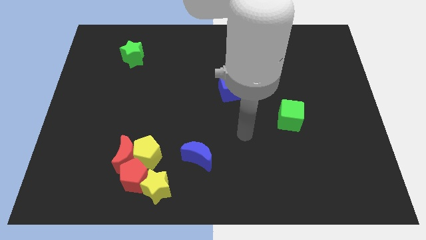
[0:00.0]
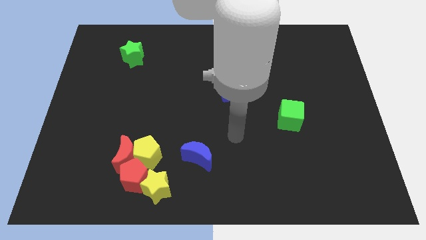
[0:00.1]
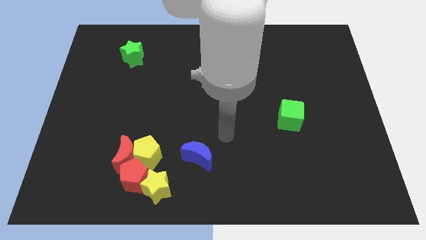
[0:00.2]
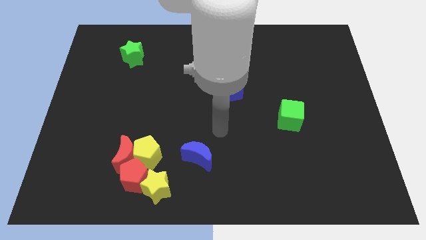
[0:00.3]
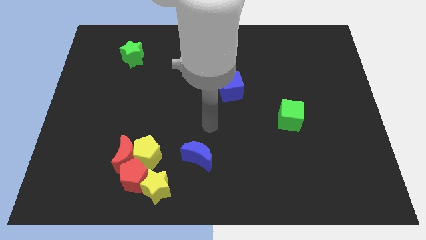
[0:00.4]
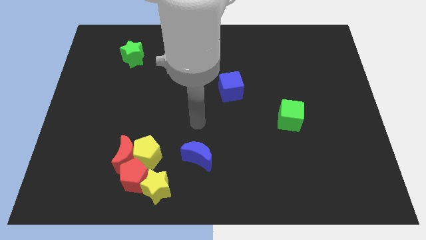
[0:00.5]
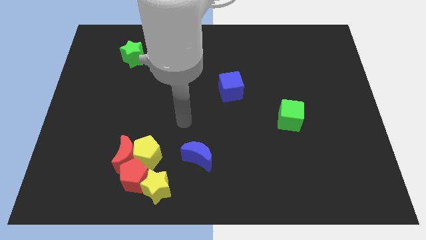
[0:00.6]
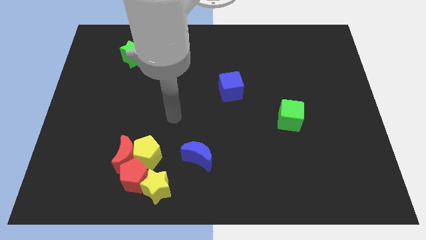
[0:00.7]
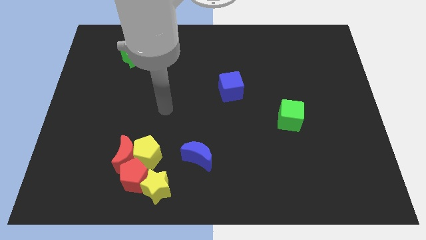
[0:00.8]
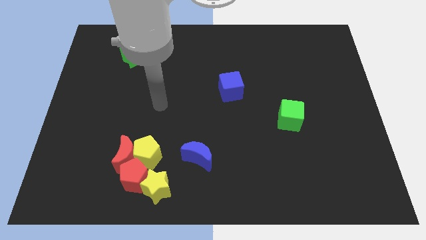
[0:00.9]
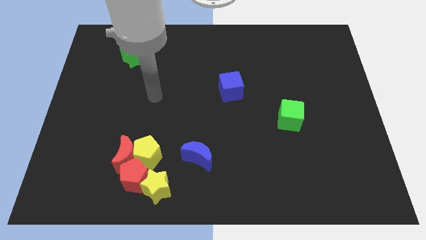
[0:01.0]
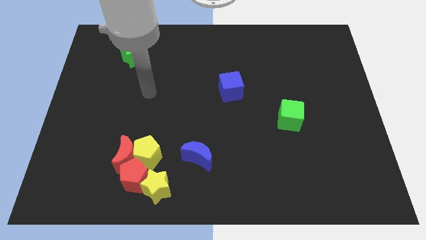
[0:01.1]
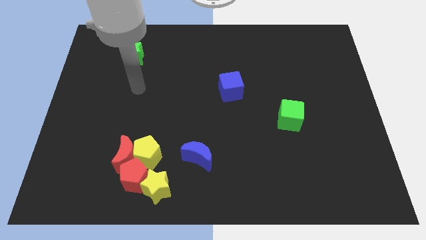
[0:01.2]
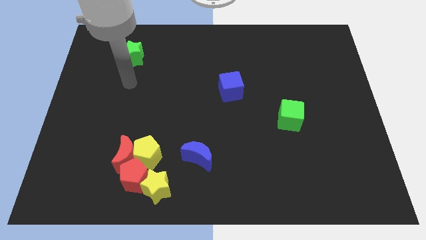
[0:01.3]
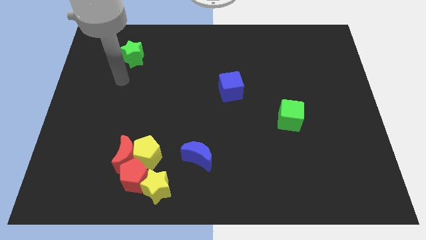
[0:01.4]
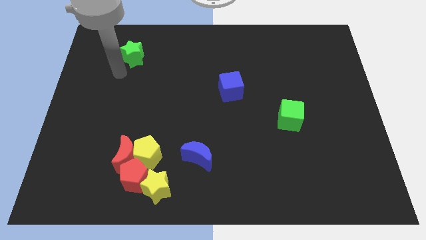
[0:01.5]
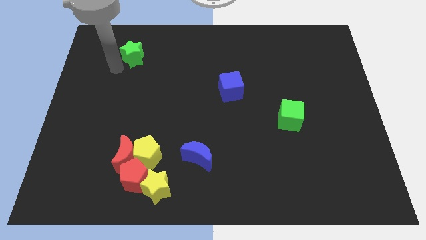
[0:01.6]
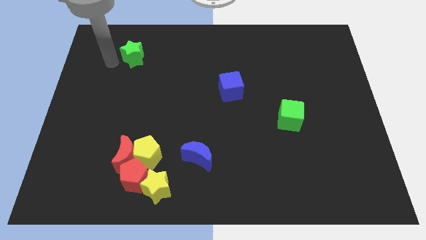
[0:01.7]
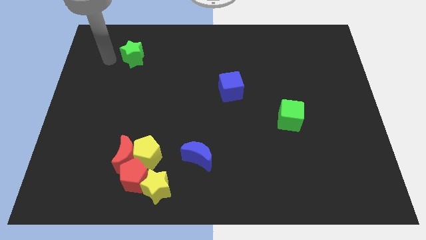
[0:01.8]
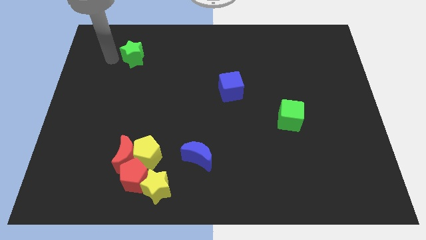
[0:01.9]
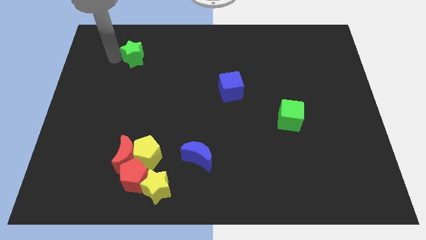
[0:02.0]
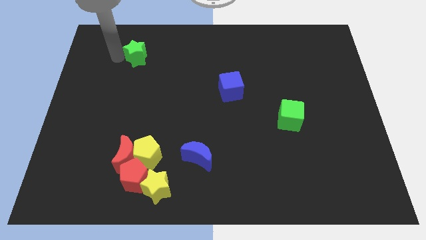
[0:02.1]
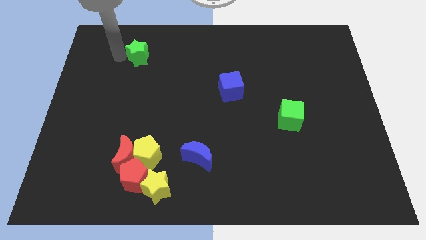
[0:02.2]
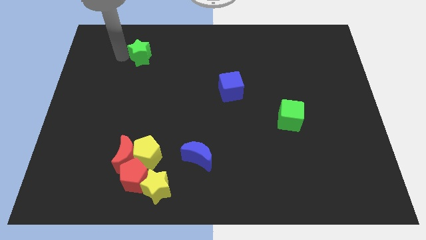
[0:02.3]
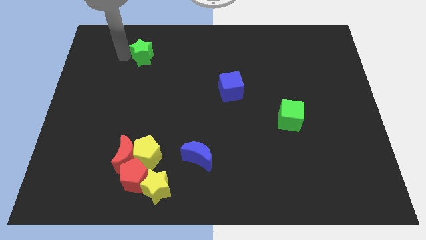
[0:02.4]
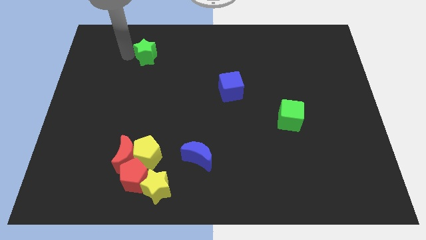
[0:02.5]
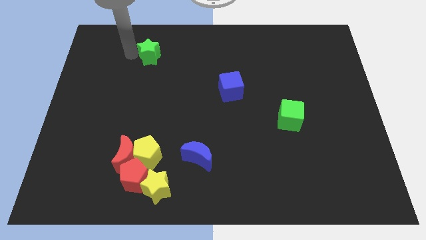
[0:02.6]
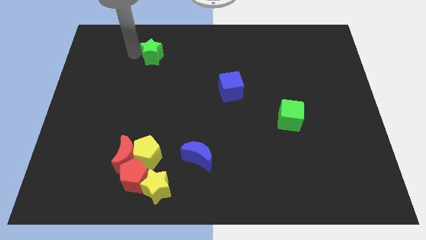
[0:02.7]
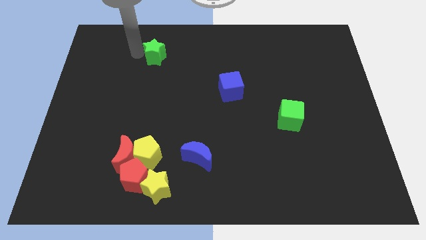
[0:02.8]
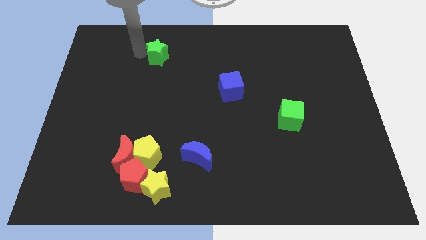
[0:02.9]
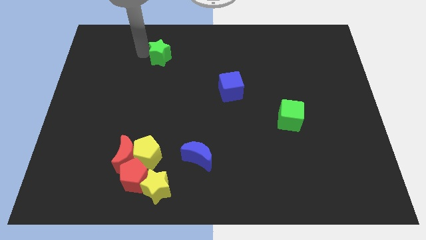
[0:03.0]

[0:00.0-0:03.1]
push the green star right slightly

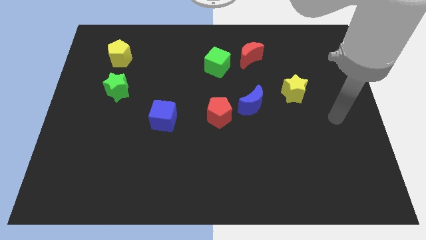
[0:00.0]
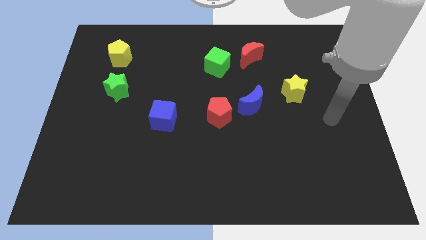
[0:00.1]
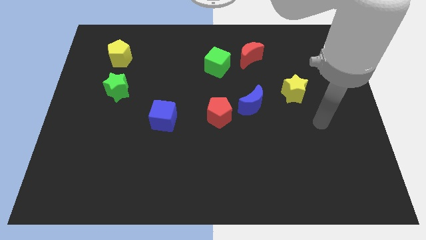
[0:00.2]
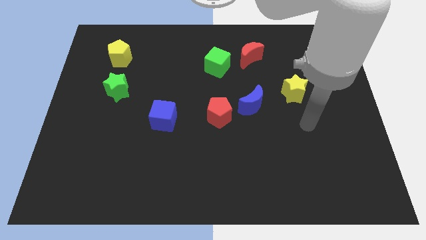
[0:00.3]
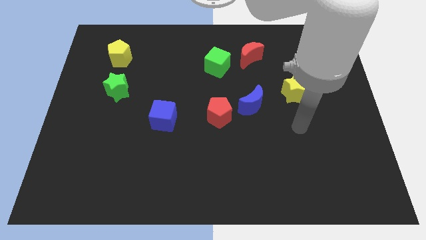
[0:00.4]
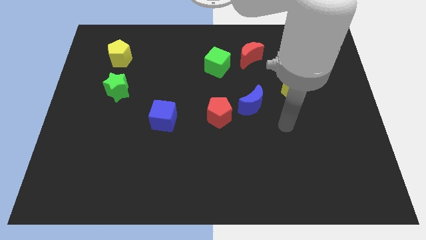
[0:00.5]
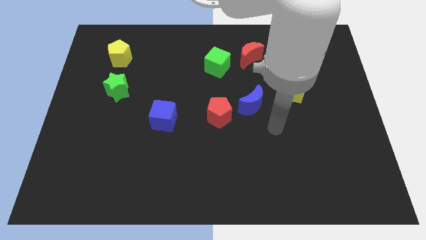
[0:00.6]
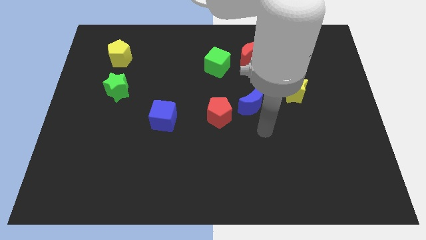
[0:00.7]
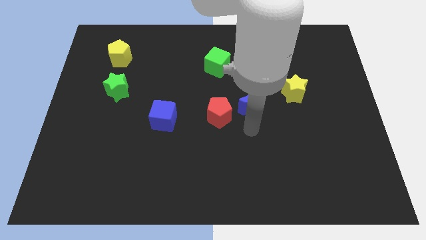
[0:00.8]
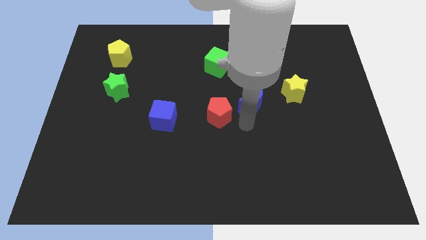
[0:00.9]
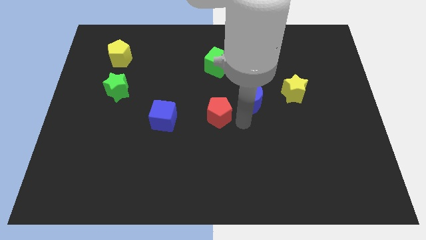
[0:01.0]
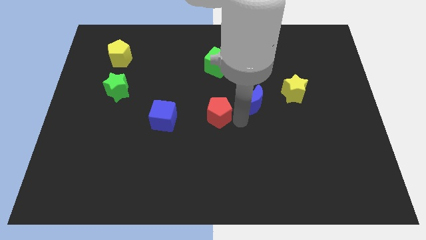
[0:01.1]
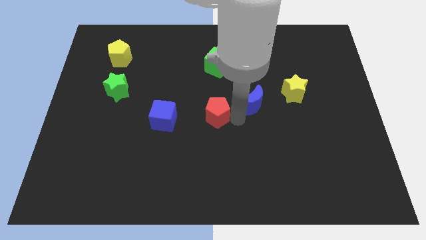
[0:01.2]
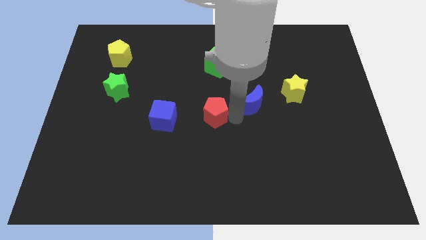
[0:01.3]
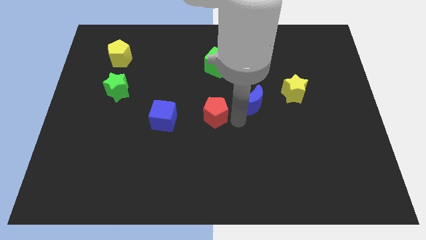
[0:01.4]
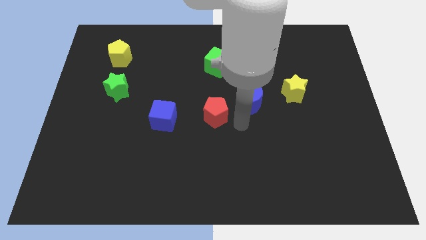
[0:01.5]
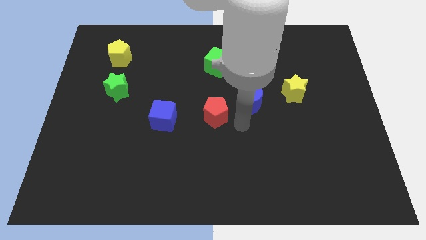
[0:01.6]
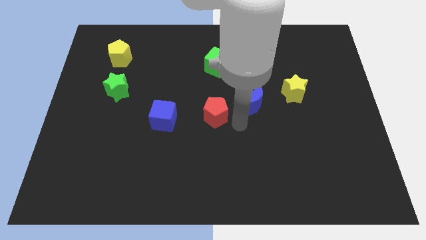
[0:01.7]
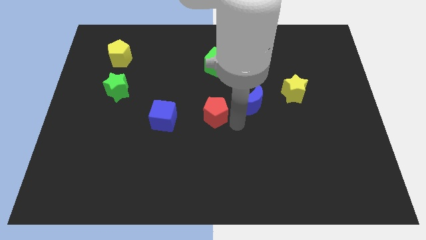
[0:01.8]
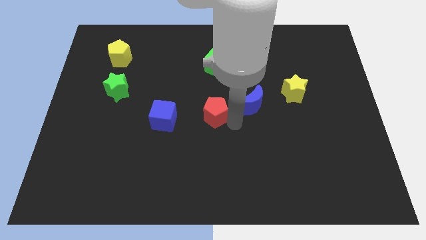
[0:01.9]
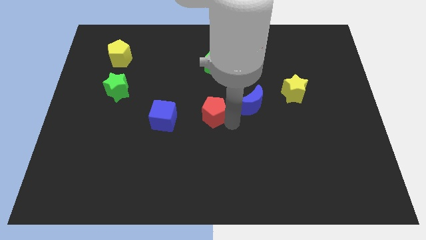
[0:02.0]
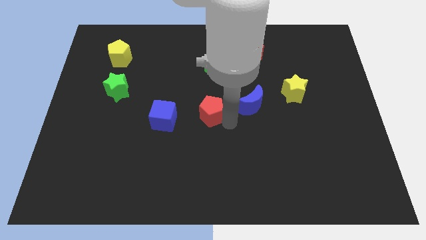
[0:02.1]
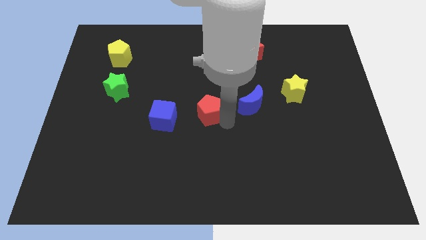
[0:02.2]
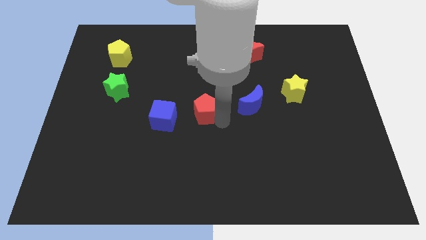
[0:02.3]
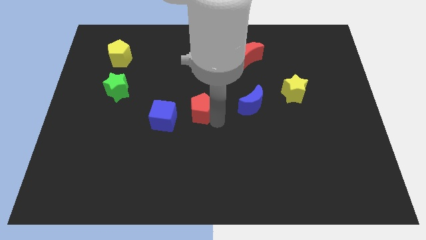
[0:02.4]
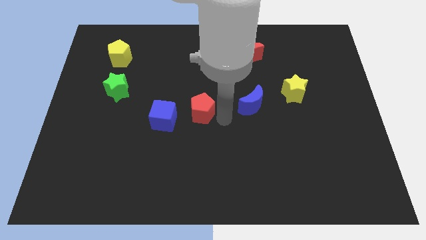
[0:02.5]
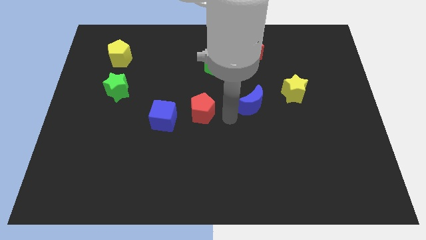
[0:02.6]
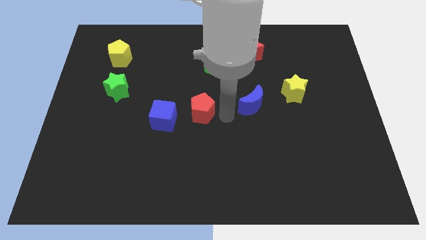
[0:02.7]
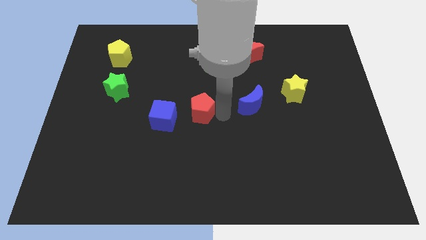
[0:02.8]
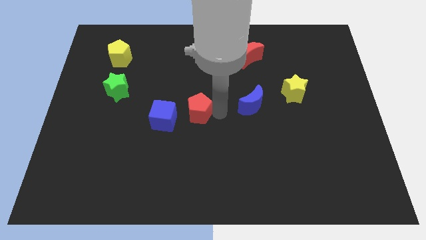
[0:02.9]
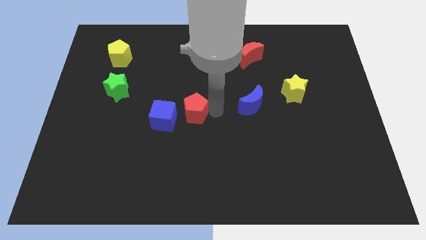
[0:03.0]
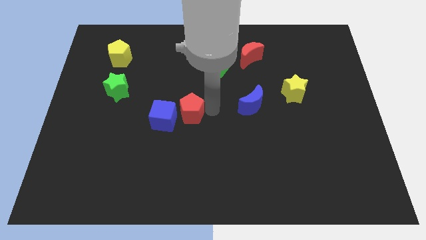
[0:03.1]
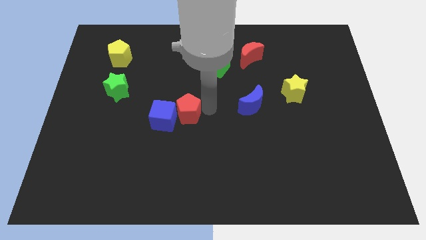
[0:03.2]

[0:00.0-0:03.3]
move the red pentagon left slightly

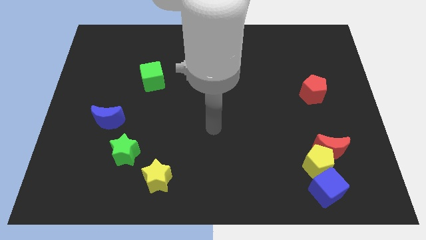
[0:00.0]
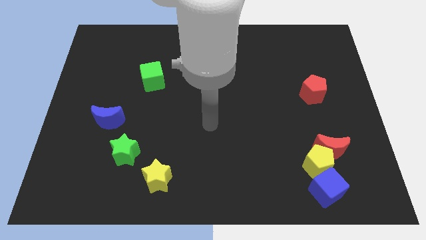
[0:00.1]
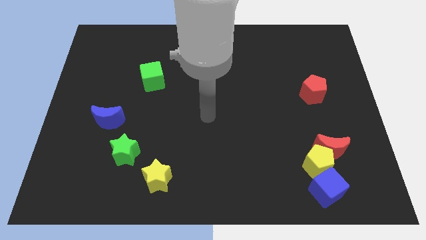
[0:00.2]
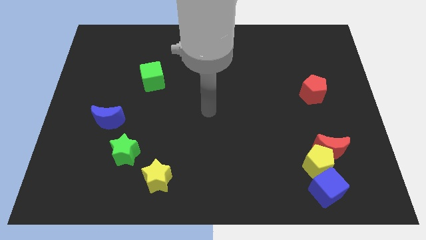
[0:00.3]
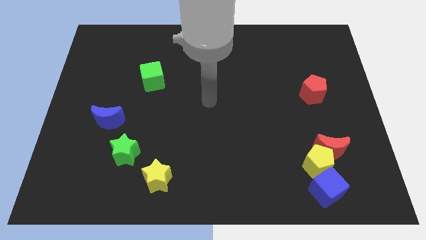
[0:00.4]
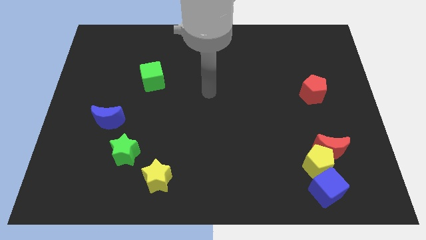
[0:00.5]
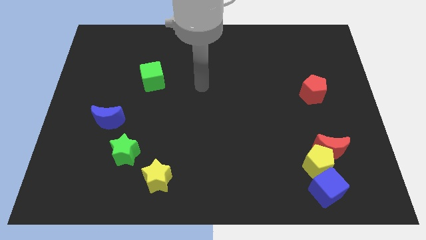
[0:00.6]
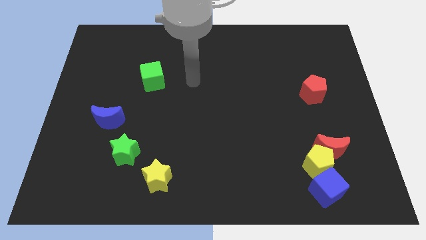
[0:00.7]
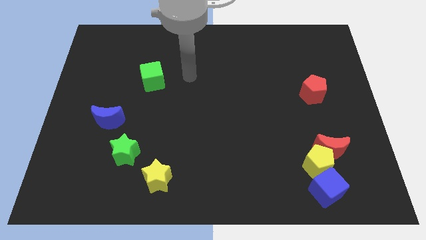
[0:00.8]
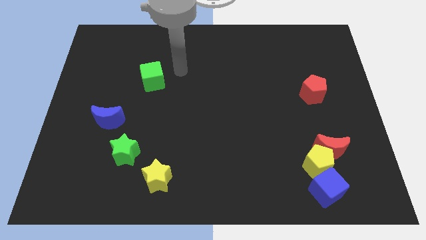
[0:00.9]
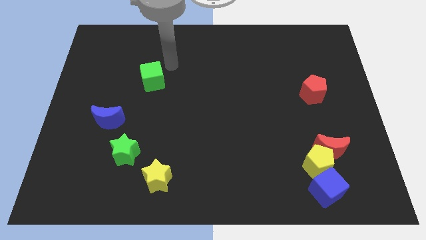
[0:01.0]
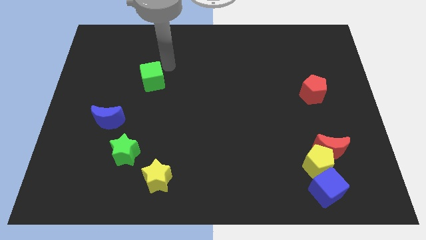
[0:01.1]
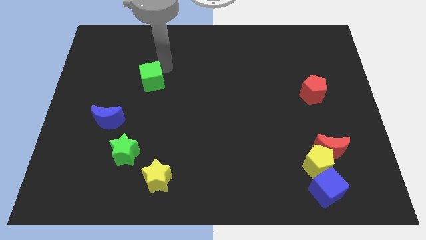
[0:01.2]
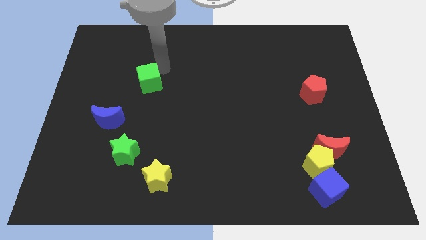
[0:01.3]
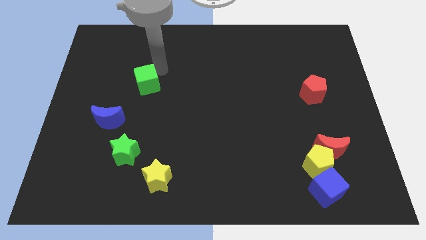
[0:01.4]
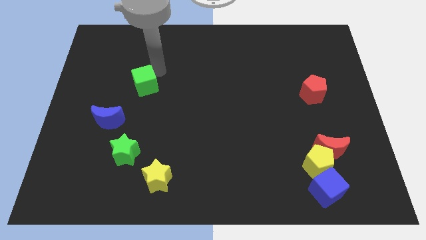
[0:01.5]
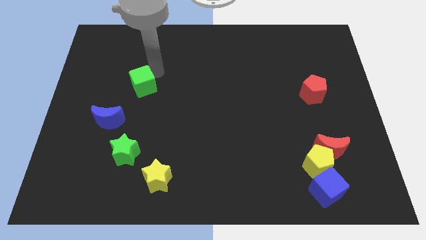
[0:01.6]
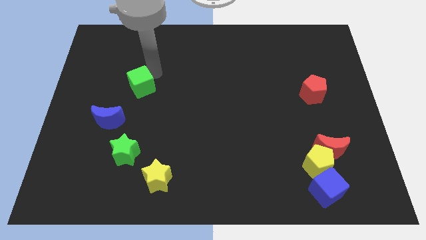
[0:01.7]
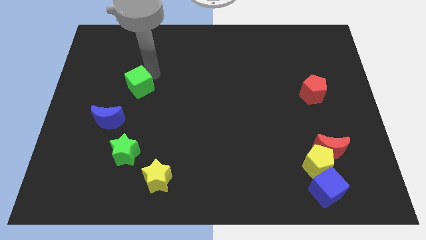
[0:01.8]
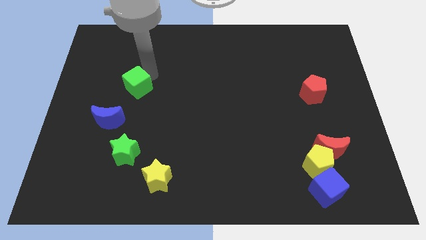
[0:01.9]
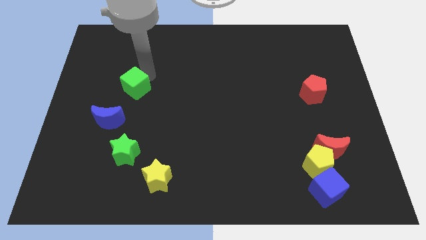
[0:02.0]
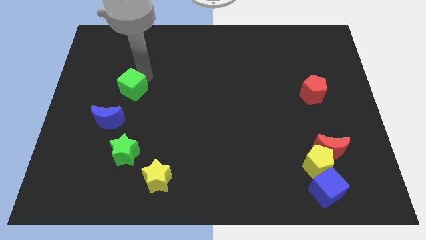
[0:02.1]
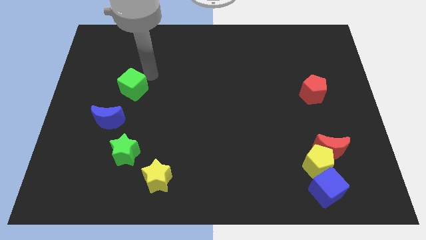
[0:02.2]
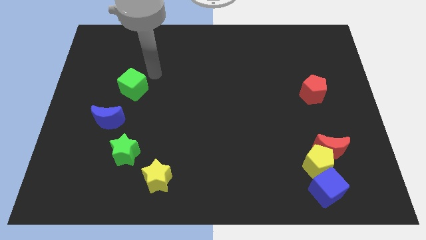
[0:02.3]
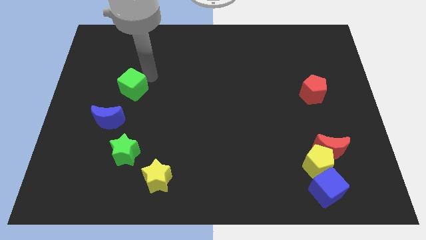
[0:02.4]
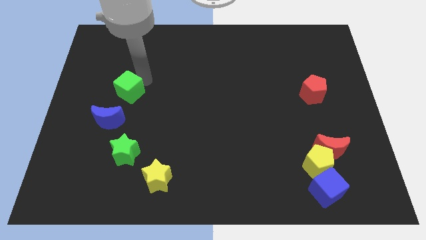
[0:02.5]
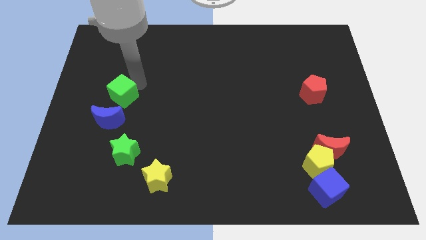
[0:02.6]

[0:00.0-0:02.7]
slide the green cube downwards and then to the left somewhat
